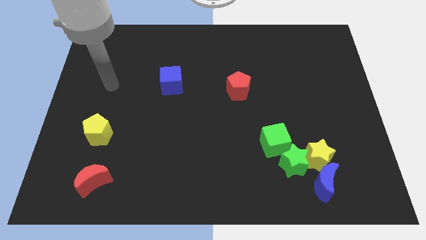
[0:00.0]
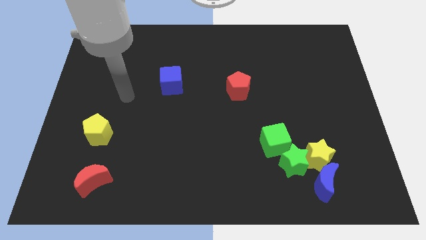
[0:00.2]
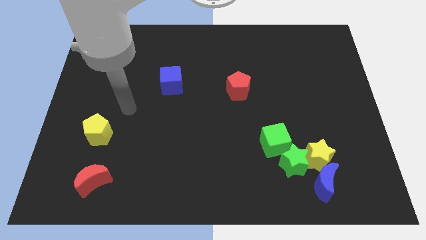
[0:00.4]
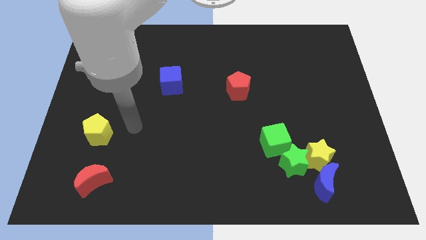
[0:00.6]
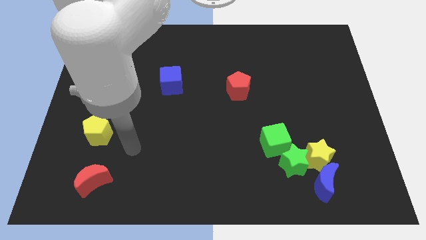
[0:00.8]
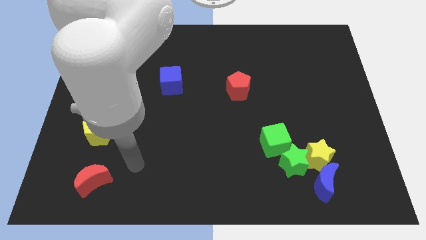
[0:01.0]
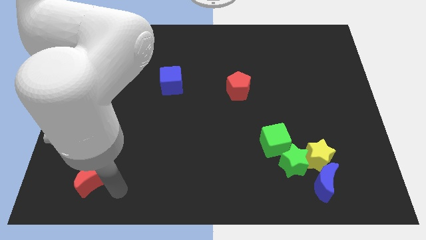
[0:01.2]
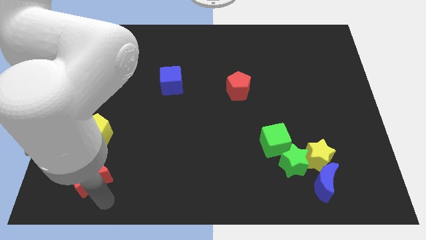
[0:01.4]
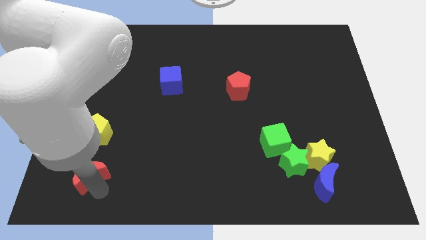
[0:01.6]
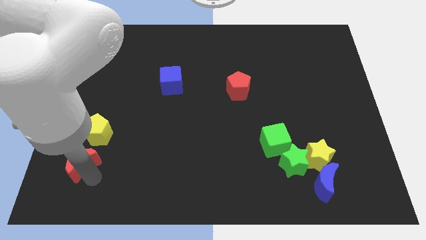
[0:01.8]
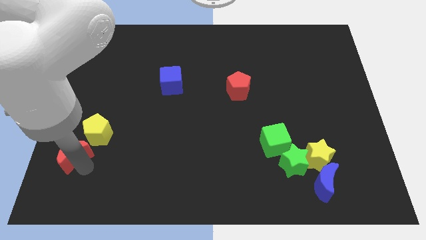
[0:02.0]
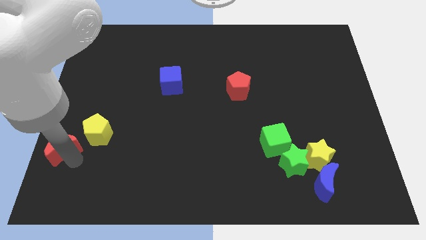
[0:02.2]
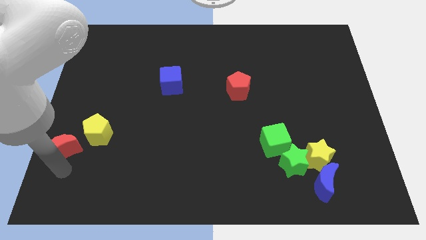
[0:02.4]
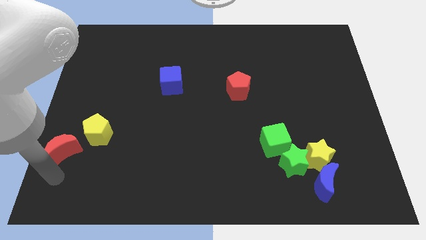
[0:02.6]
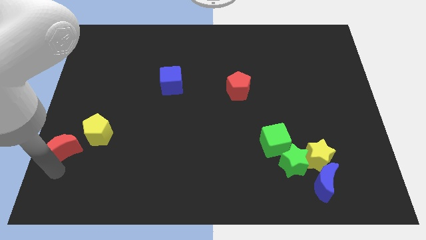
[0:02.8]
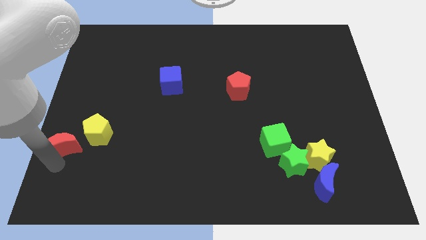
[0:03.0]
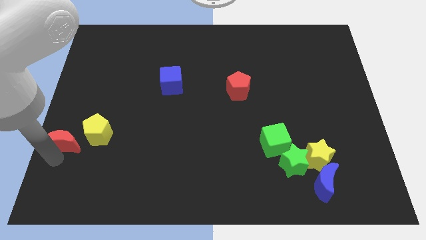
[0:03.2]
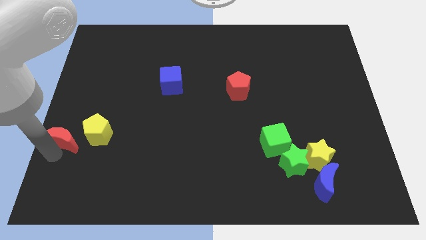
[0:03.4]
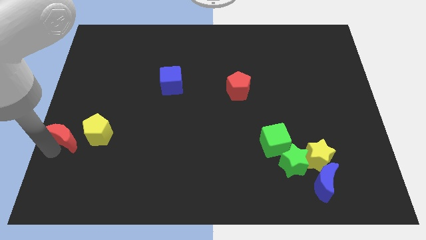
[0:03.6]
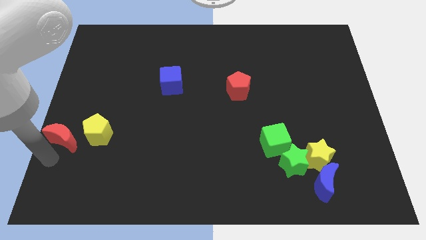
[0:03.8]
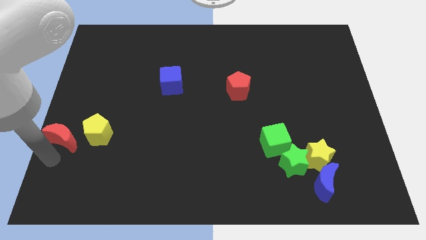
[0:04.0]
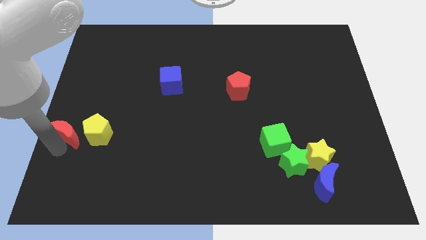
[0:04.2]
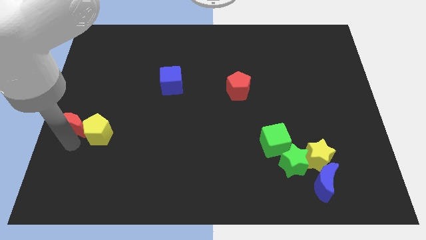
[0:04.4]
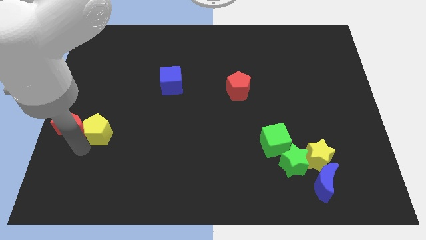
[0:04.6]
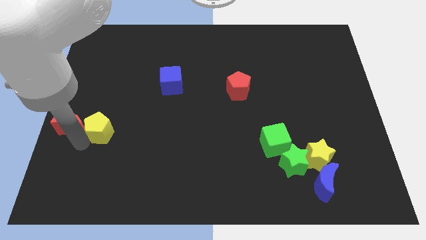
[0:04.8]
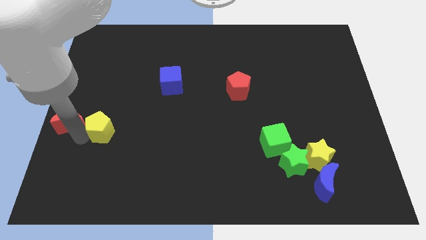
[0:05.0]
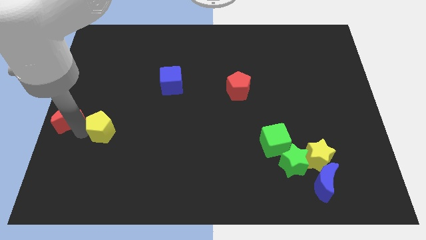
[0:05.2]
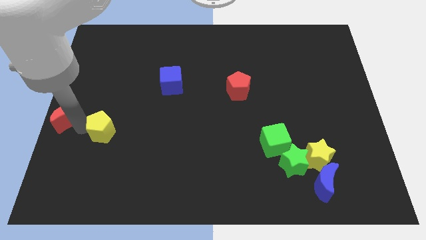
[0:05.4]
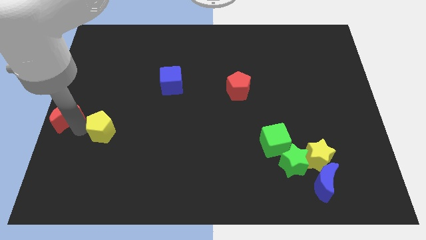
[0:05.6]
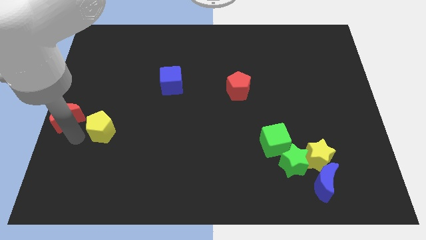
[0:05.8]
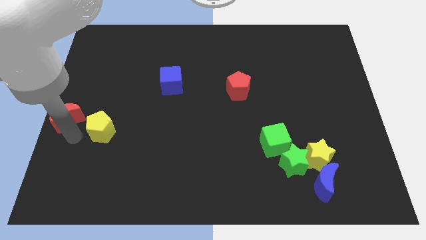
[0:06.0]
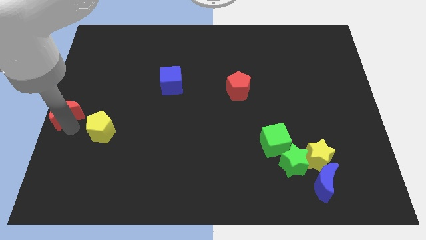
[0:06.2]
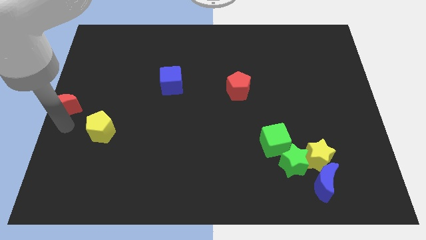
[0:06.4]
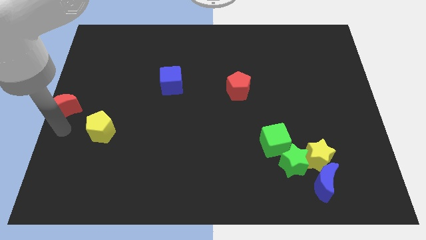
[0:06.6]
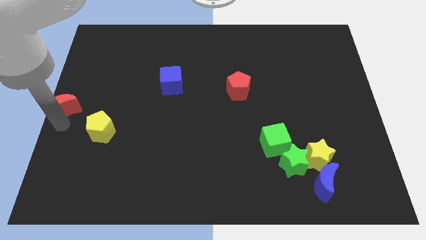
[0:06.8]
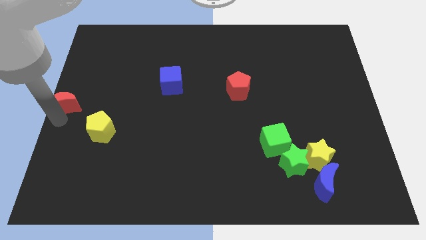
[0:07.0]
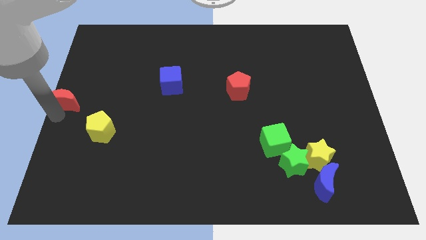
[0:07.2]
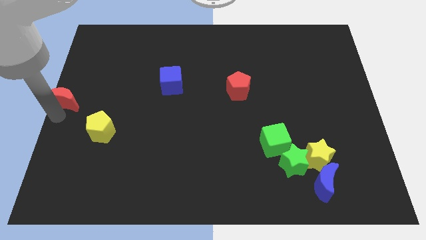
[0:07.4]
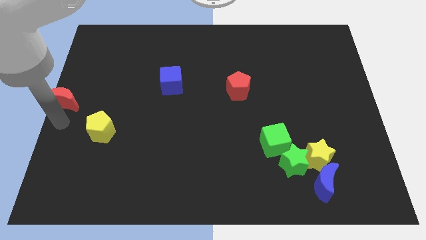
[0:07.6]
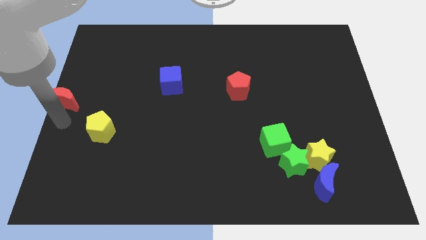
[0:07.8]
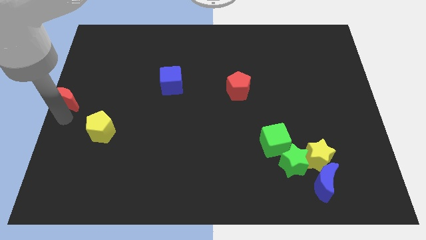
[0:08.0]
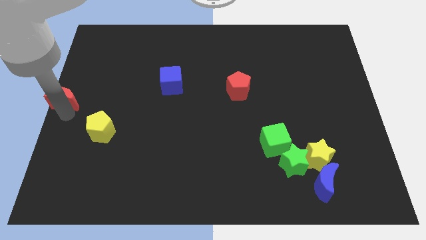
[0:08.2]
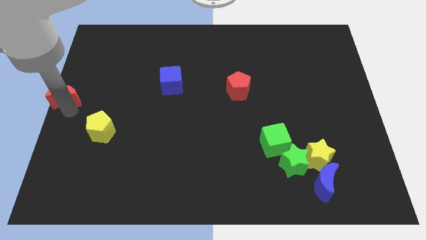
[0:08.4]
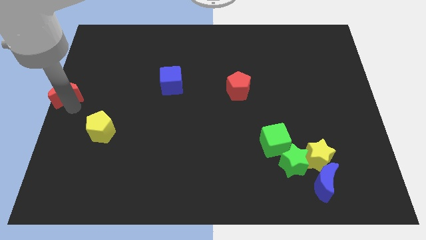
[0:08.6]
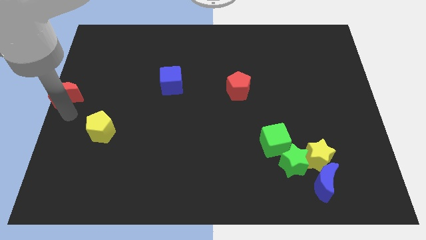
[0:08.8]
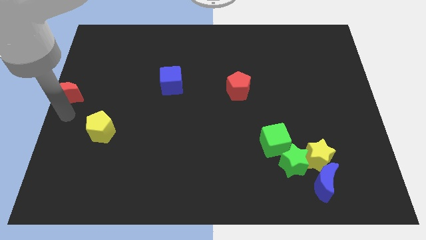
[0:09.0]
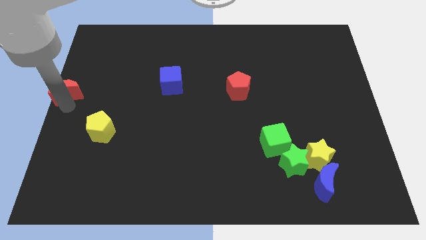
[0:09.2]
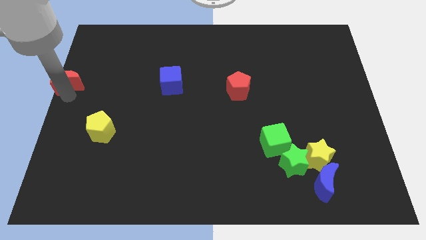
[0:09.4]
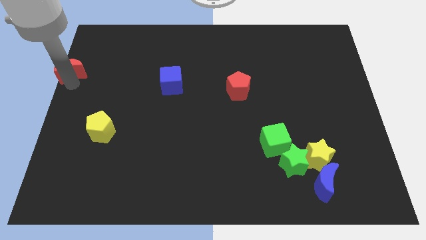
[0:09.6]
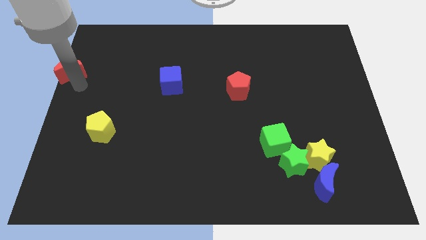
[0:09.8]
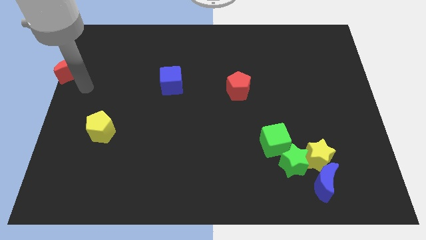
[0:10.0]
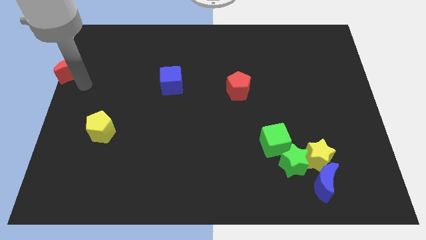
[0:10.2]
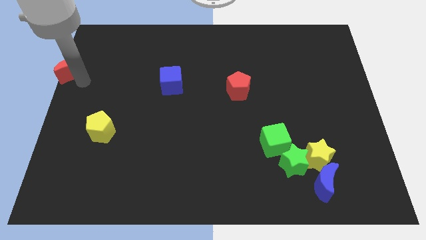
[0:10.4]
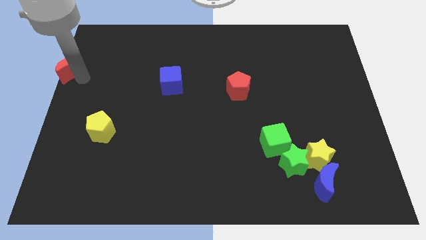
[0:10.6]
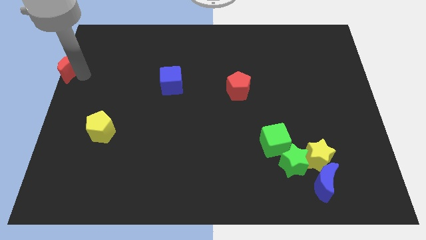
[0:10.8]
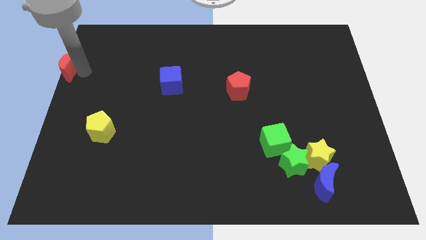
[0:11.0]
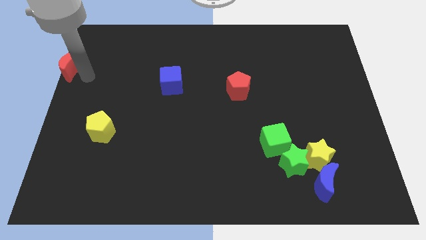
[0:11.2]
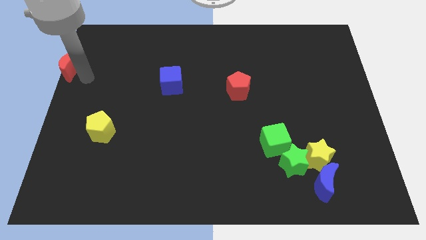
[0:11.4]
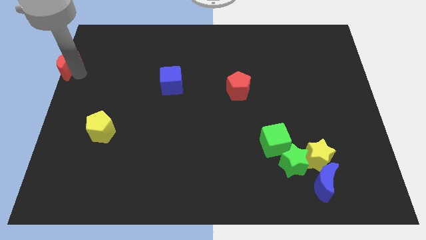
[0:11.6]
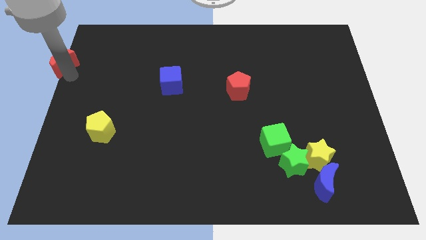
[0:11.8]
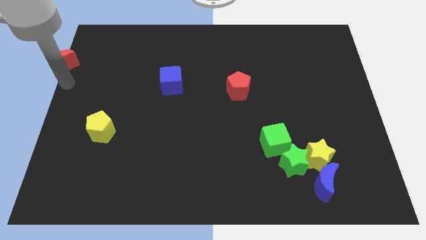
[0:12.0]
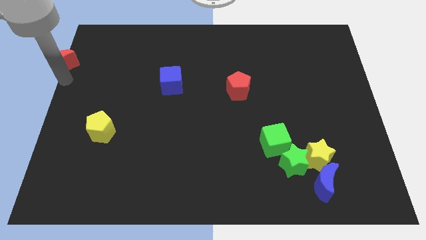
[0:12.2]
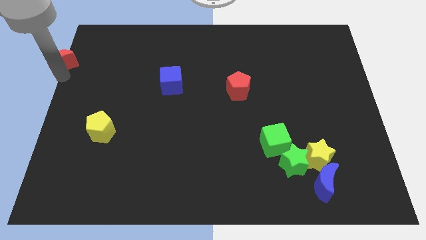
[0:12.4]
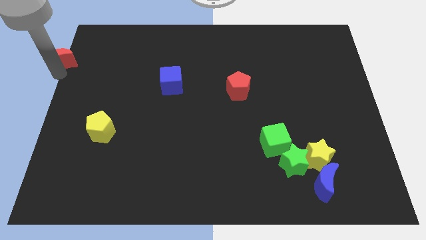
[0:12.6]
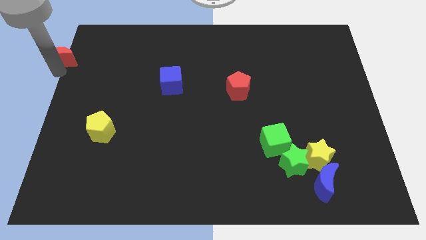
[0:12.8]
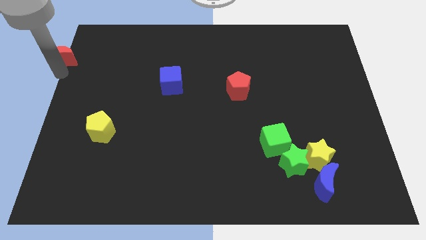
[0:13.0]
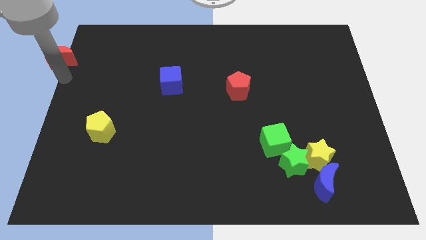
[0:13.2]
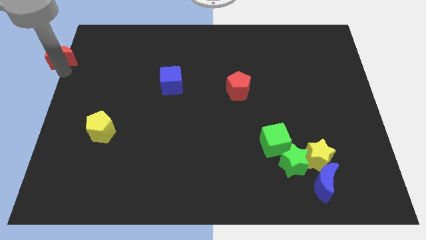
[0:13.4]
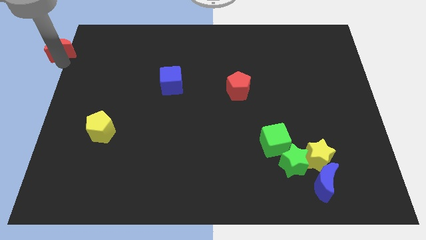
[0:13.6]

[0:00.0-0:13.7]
push the red moon to the top left corner
